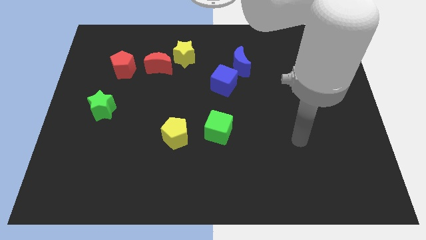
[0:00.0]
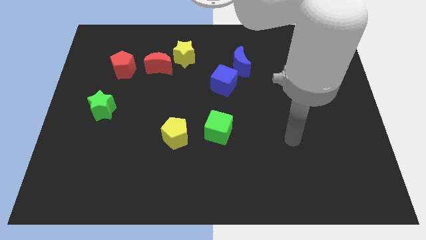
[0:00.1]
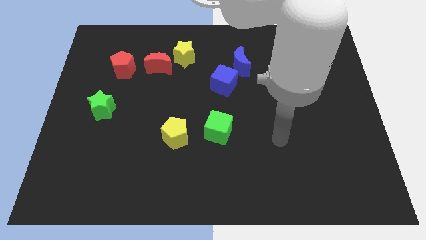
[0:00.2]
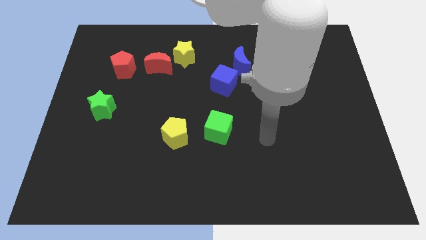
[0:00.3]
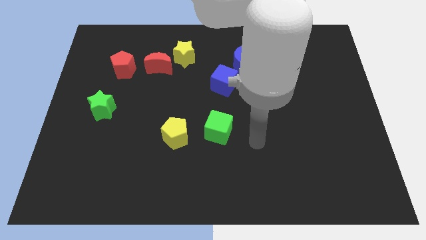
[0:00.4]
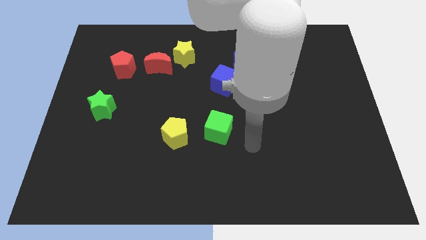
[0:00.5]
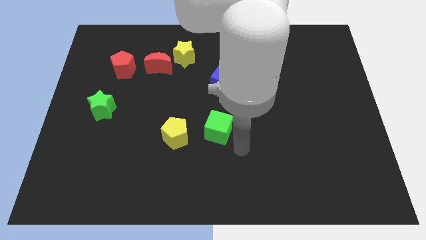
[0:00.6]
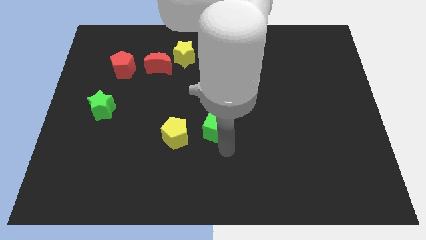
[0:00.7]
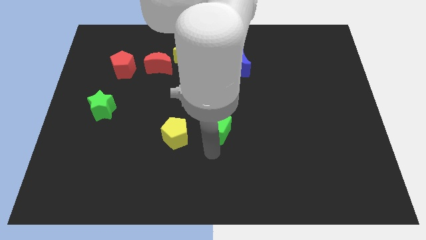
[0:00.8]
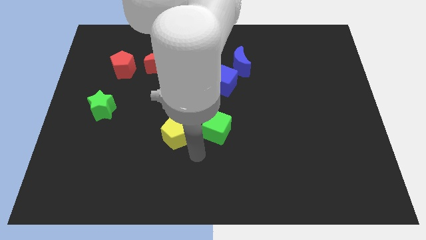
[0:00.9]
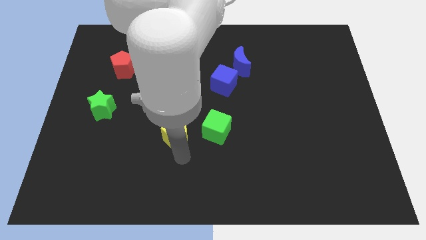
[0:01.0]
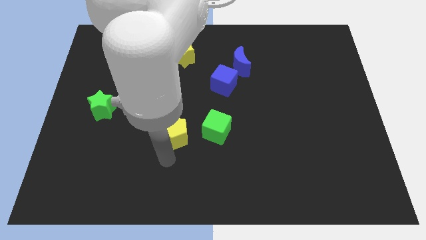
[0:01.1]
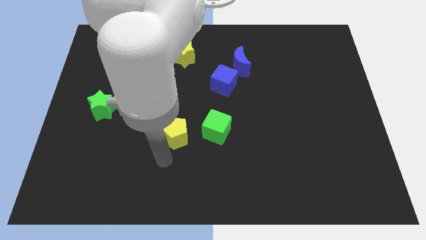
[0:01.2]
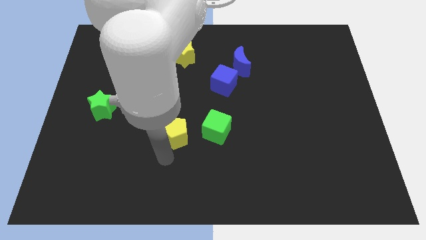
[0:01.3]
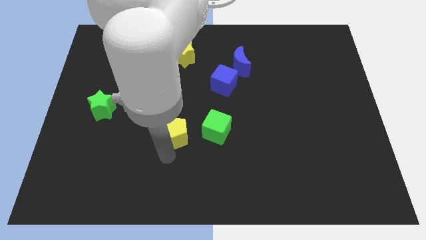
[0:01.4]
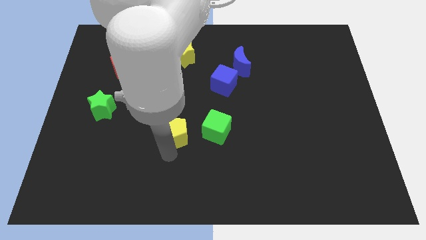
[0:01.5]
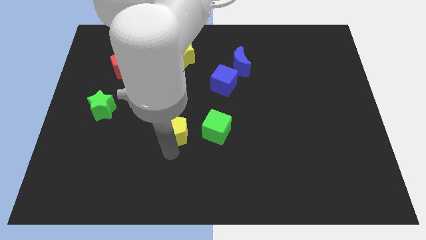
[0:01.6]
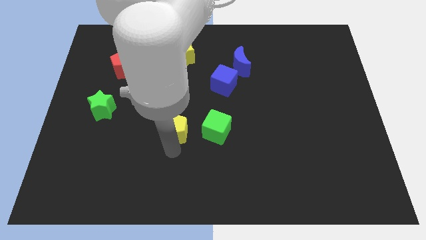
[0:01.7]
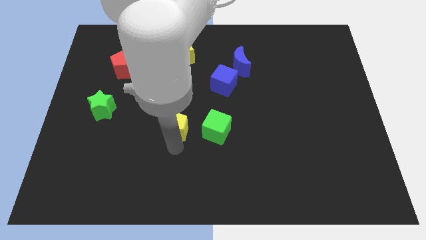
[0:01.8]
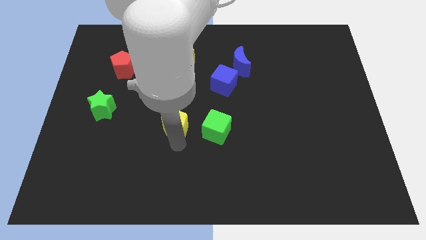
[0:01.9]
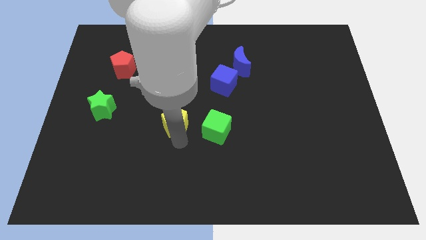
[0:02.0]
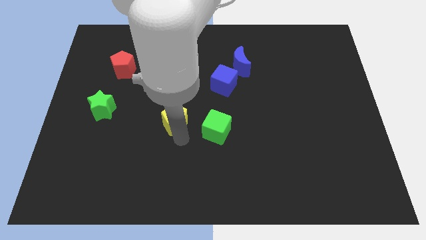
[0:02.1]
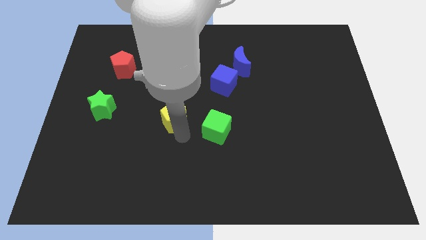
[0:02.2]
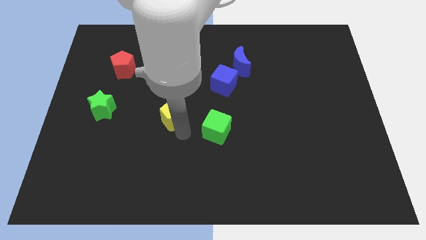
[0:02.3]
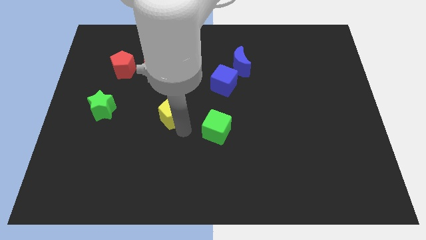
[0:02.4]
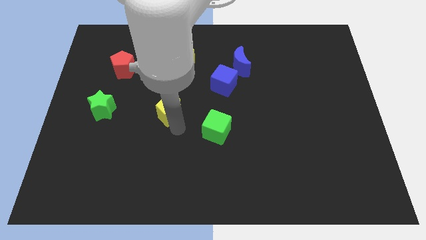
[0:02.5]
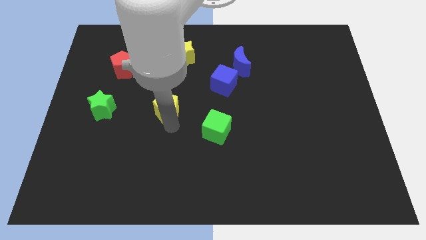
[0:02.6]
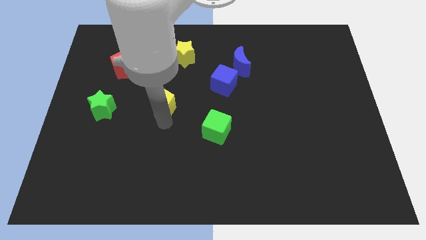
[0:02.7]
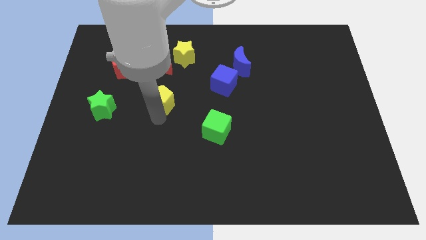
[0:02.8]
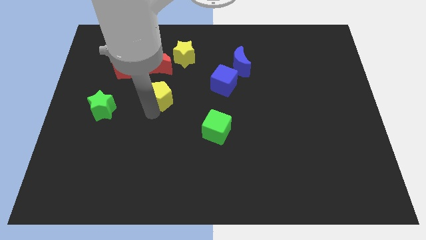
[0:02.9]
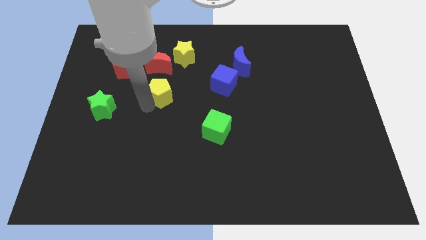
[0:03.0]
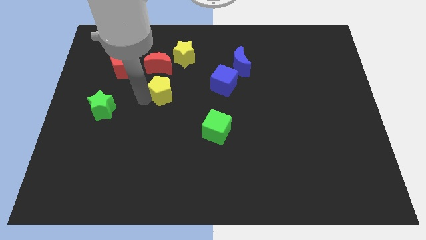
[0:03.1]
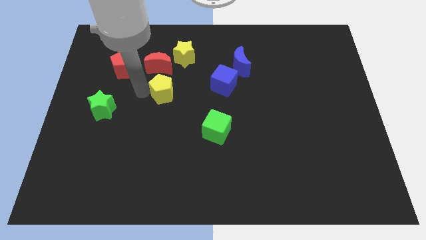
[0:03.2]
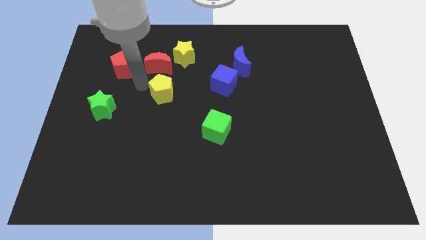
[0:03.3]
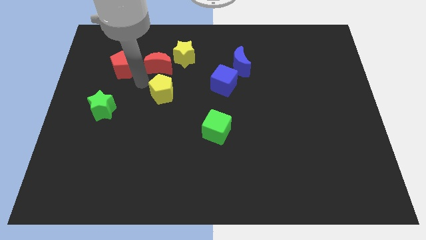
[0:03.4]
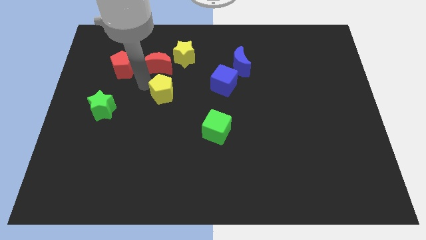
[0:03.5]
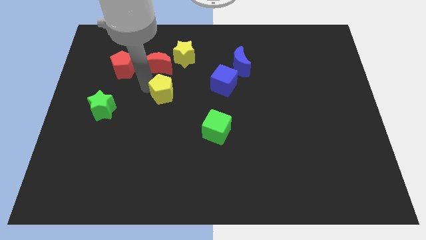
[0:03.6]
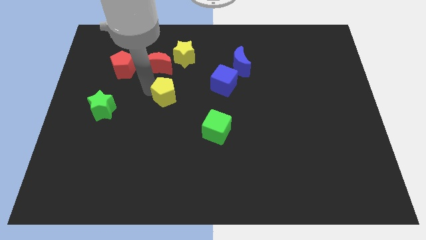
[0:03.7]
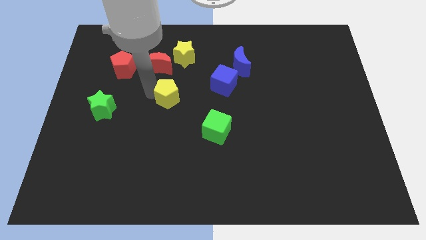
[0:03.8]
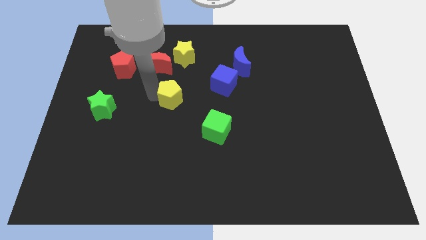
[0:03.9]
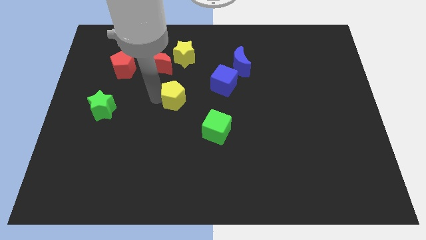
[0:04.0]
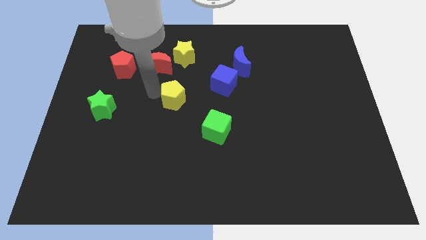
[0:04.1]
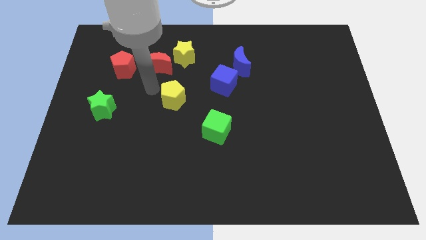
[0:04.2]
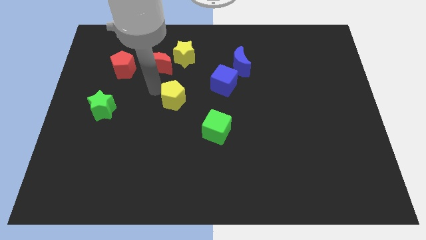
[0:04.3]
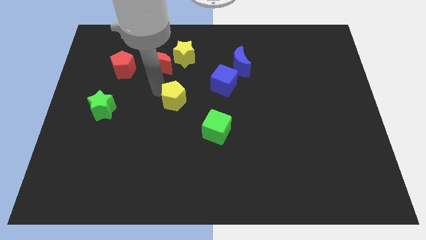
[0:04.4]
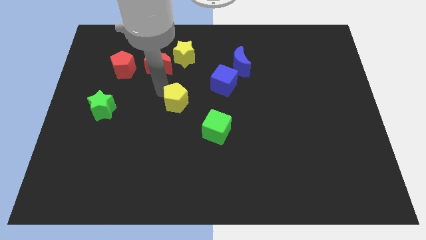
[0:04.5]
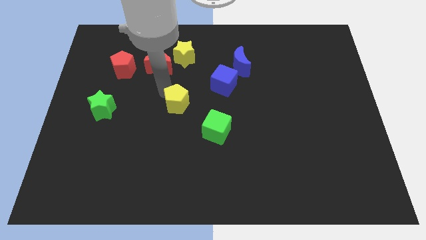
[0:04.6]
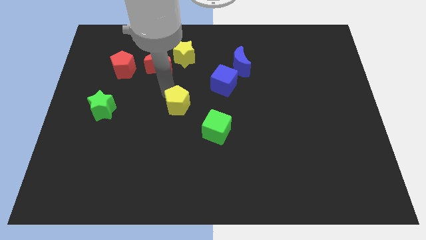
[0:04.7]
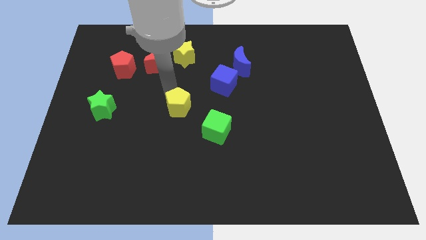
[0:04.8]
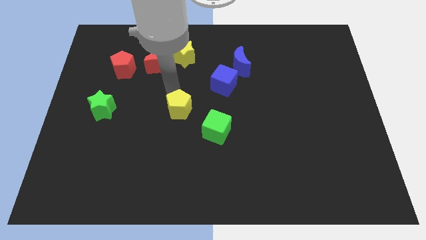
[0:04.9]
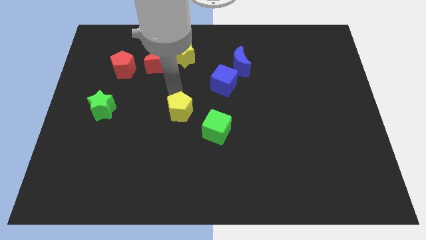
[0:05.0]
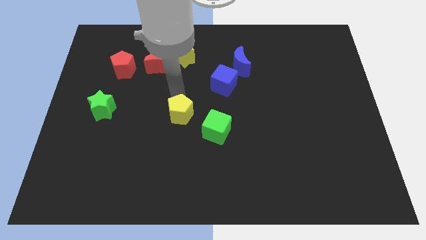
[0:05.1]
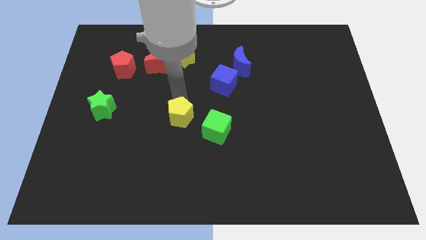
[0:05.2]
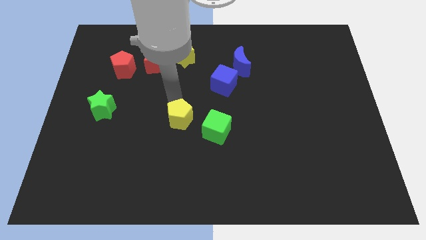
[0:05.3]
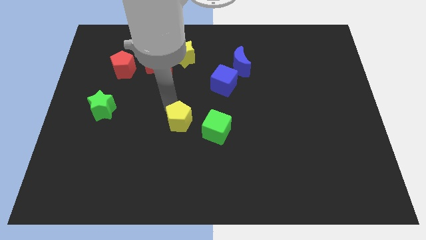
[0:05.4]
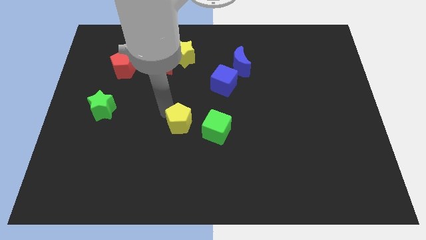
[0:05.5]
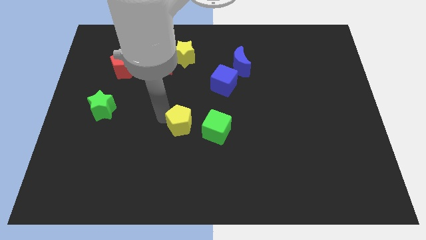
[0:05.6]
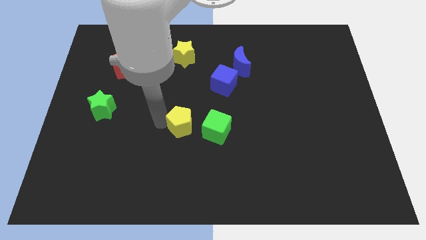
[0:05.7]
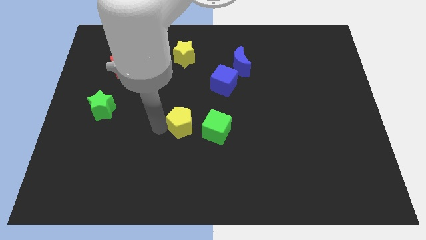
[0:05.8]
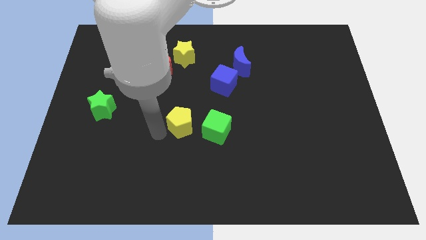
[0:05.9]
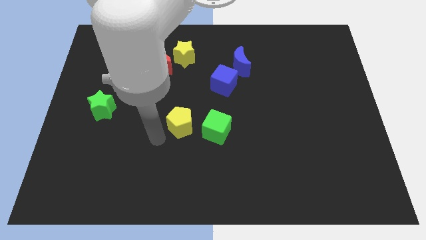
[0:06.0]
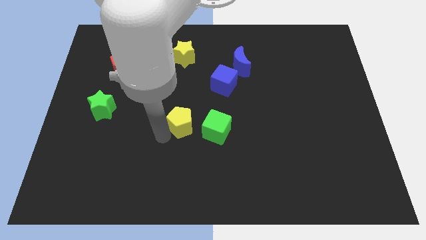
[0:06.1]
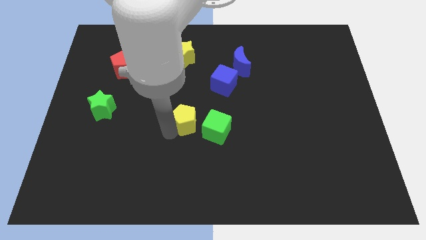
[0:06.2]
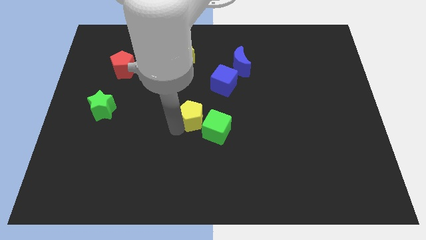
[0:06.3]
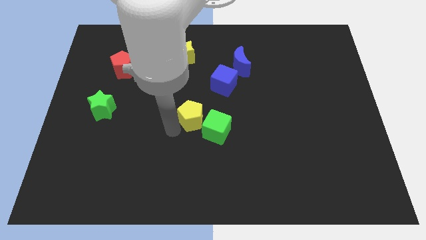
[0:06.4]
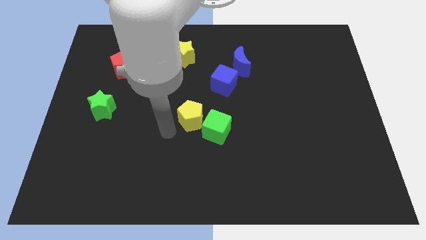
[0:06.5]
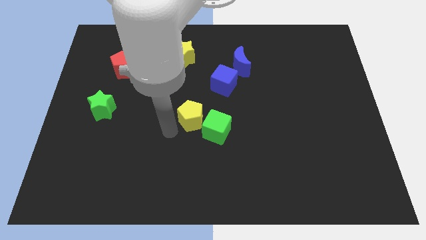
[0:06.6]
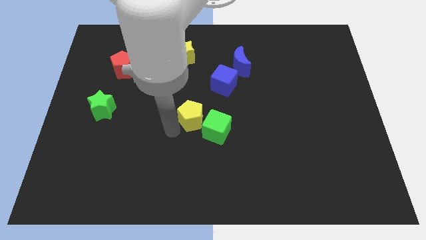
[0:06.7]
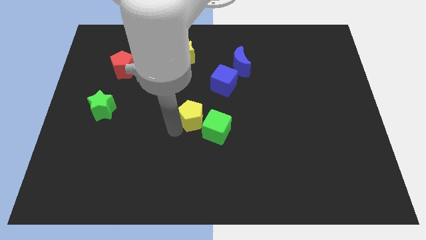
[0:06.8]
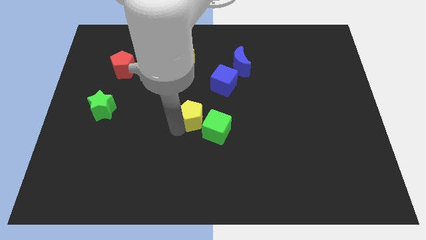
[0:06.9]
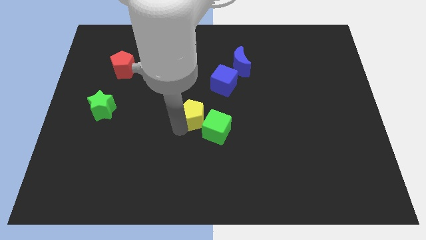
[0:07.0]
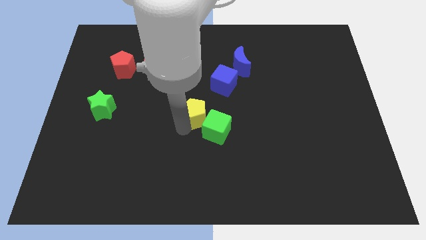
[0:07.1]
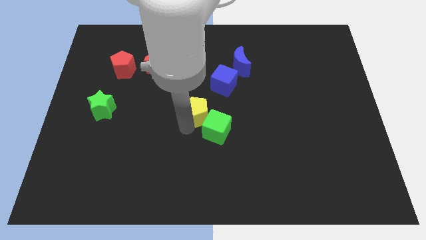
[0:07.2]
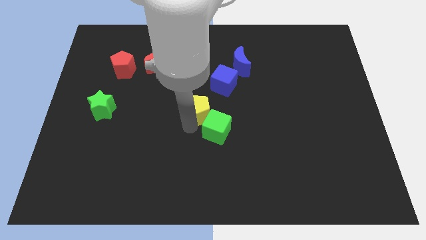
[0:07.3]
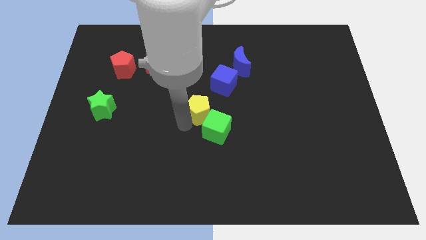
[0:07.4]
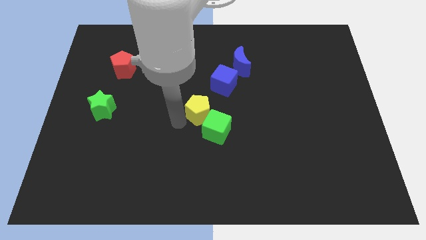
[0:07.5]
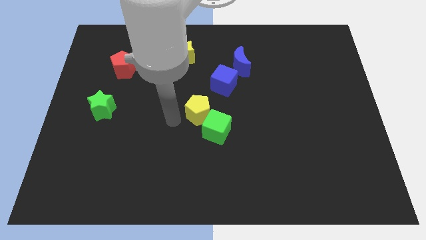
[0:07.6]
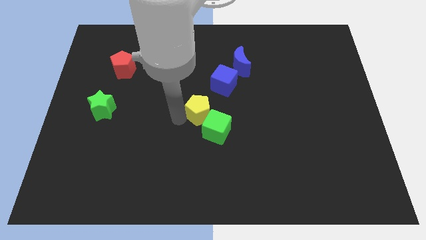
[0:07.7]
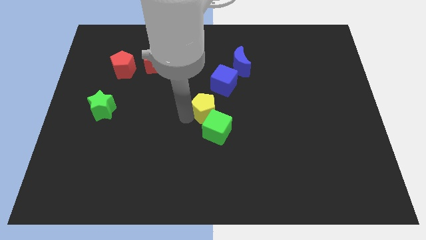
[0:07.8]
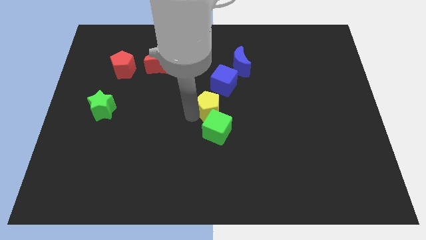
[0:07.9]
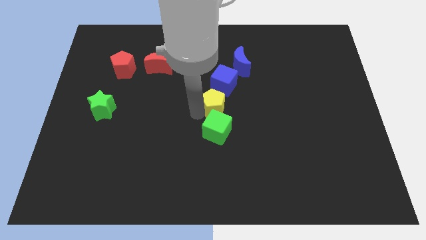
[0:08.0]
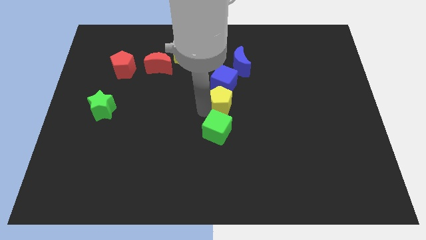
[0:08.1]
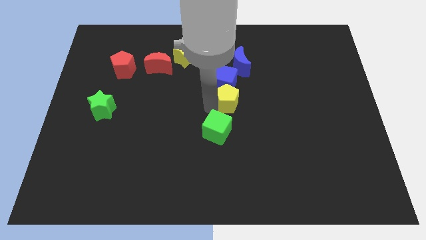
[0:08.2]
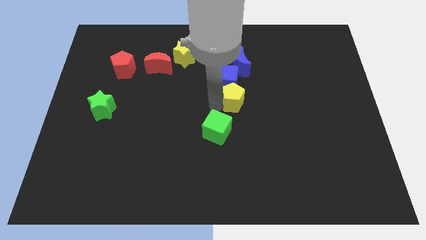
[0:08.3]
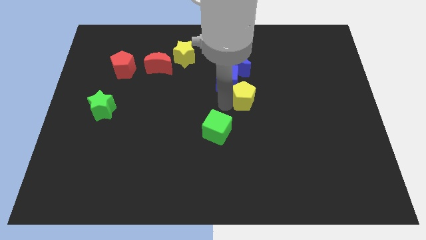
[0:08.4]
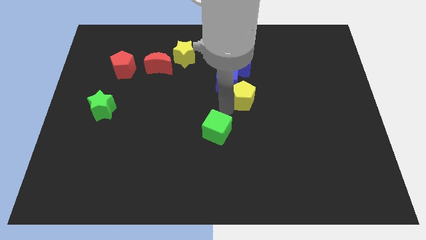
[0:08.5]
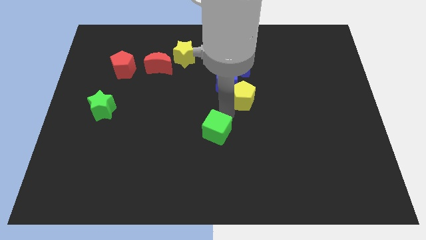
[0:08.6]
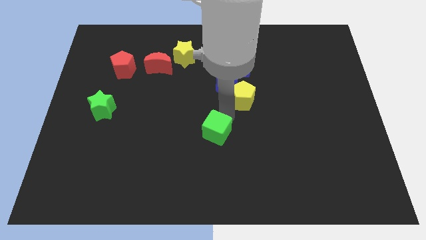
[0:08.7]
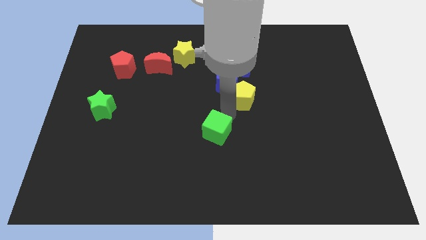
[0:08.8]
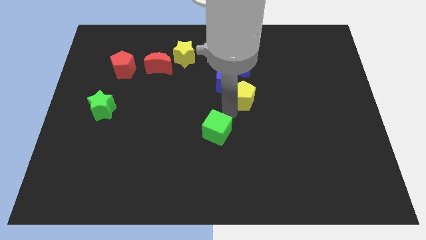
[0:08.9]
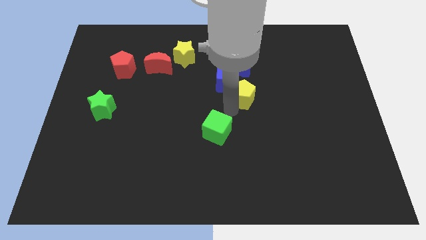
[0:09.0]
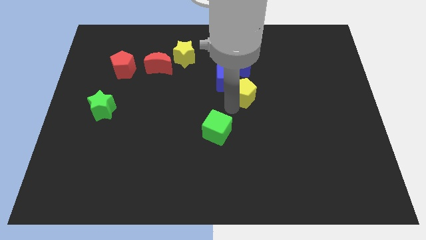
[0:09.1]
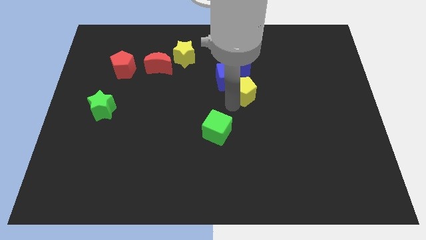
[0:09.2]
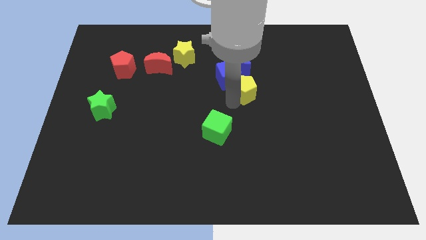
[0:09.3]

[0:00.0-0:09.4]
move the yellow pentagon up and right
